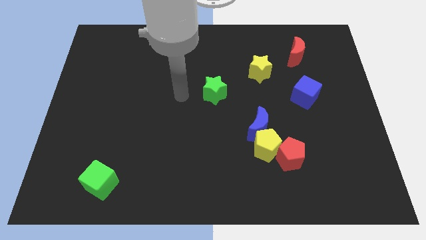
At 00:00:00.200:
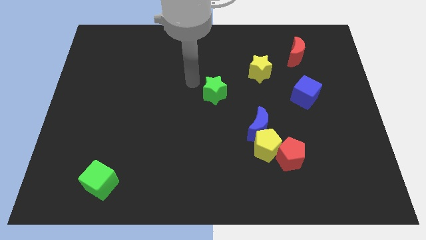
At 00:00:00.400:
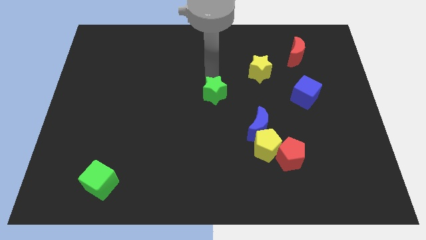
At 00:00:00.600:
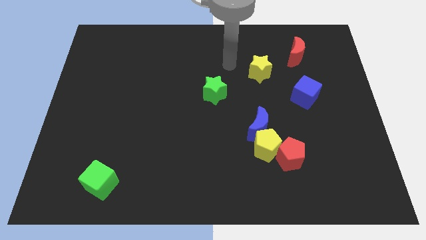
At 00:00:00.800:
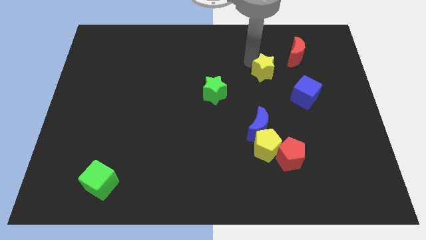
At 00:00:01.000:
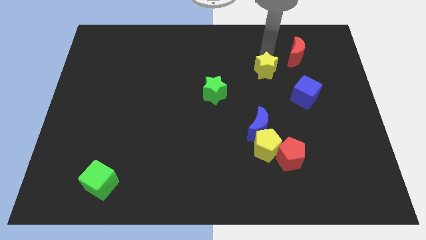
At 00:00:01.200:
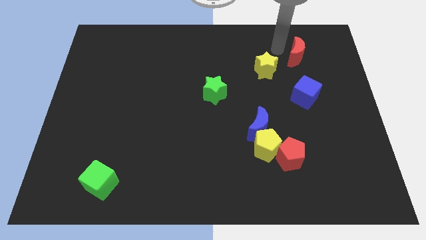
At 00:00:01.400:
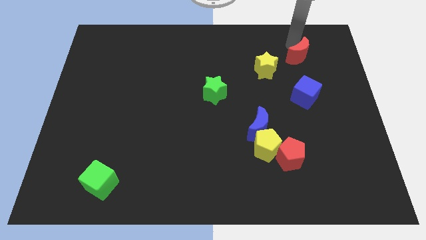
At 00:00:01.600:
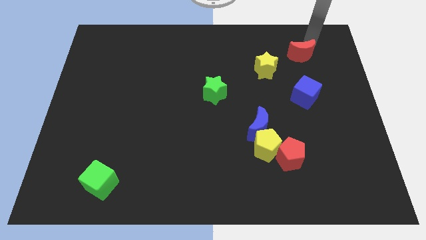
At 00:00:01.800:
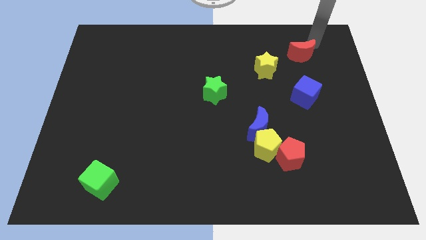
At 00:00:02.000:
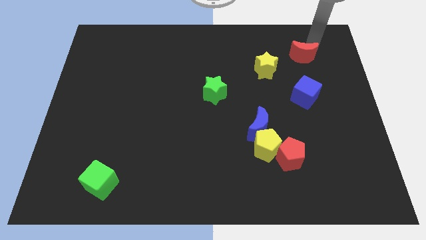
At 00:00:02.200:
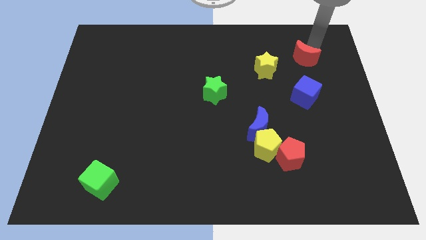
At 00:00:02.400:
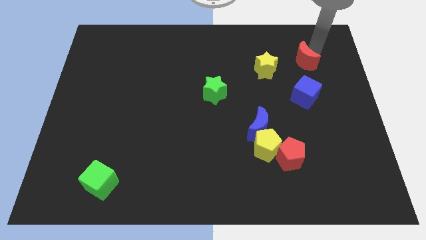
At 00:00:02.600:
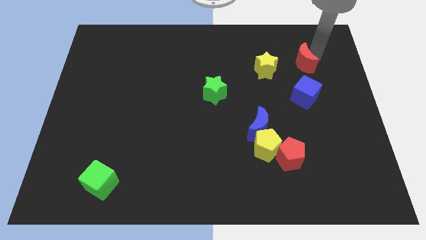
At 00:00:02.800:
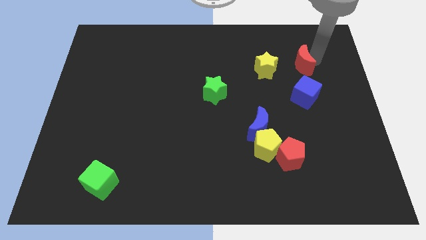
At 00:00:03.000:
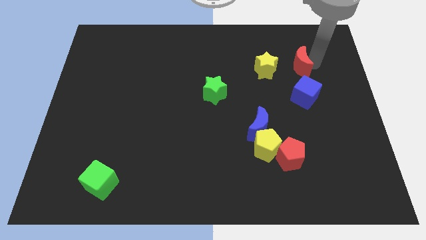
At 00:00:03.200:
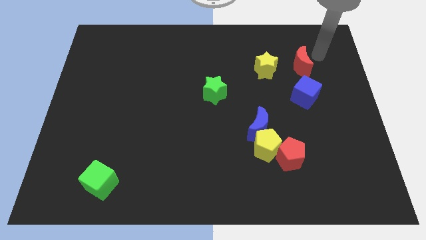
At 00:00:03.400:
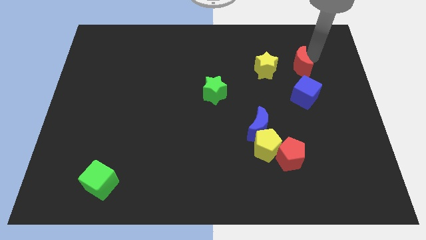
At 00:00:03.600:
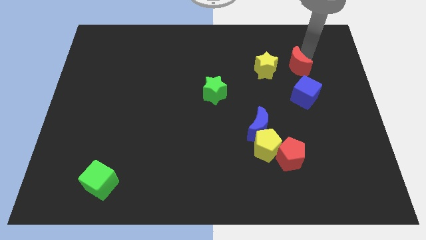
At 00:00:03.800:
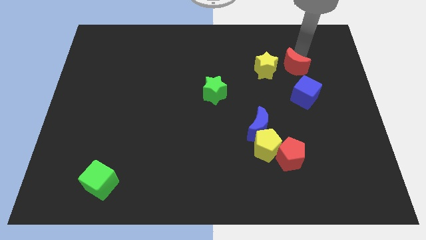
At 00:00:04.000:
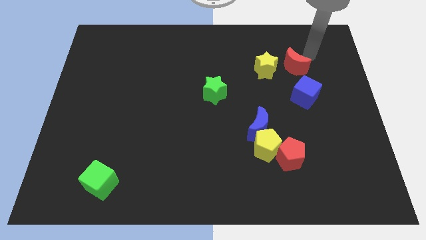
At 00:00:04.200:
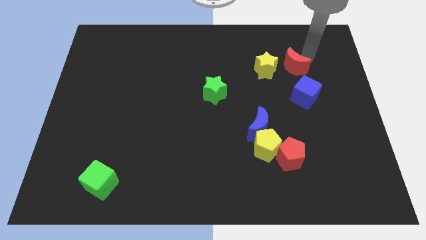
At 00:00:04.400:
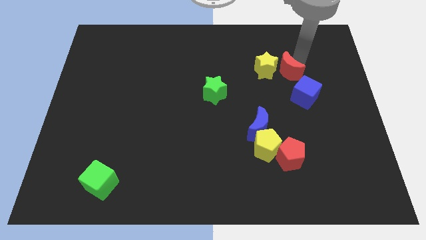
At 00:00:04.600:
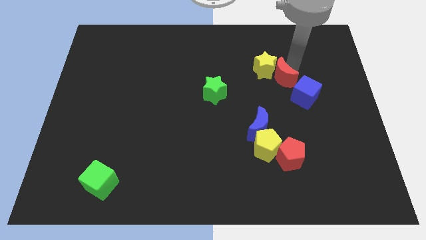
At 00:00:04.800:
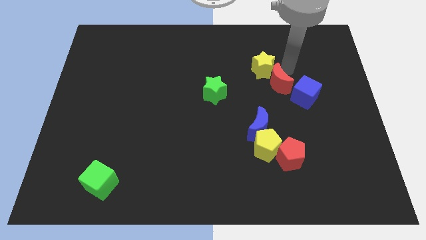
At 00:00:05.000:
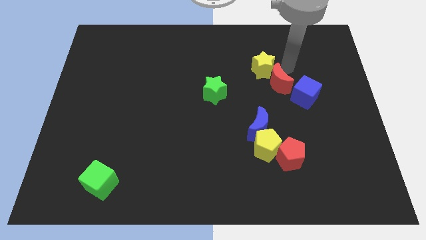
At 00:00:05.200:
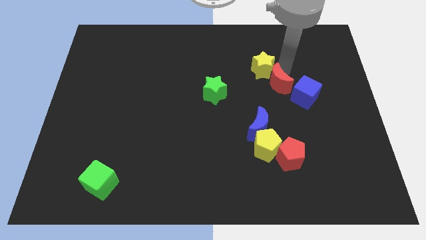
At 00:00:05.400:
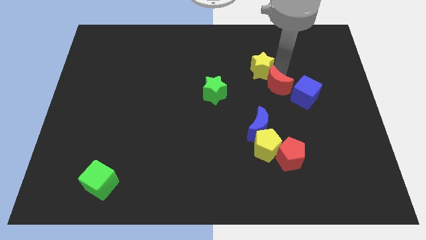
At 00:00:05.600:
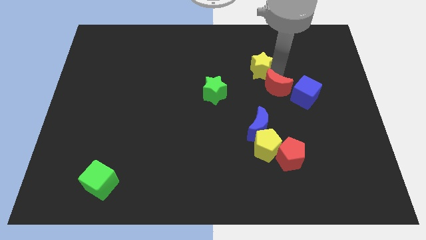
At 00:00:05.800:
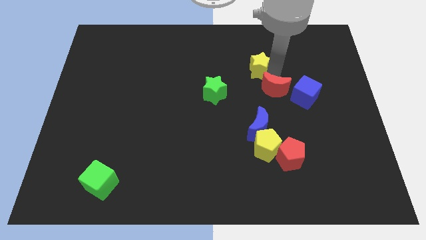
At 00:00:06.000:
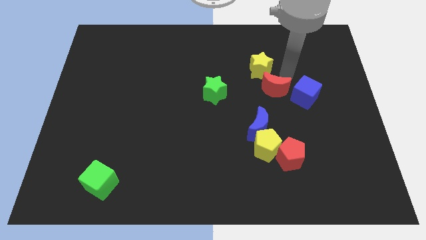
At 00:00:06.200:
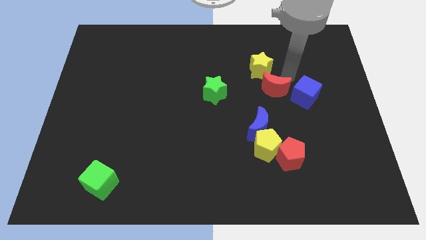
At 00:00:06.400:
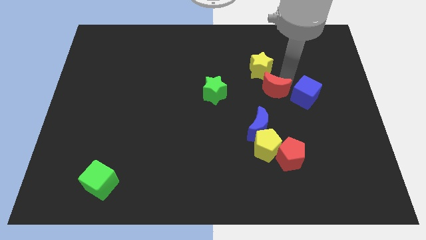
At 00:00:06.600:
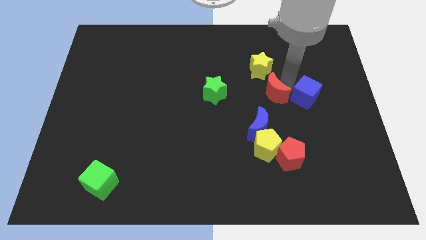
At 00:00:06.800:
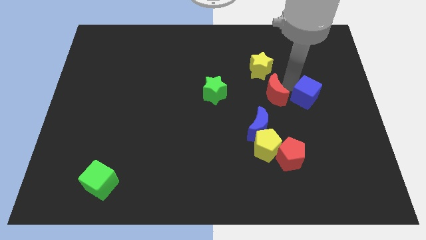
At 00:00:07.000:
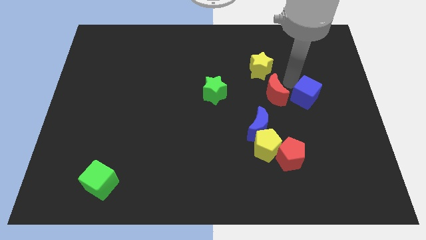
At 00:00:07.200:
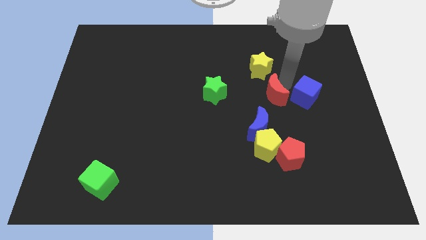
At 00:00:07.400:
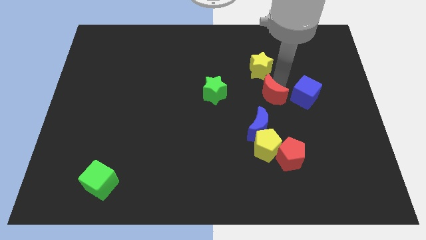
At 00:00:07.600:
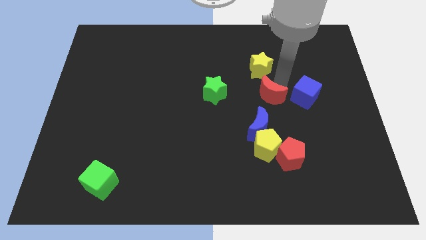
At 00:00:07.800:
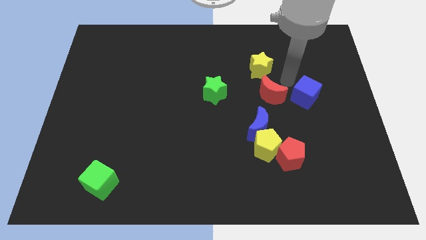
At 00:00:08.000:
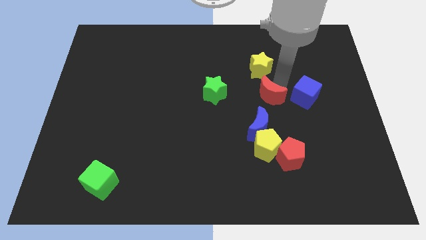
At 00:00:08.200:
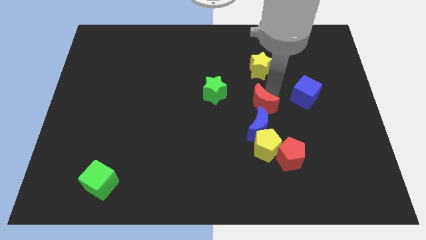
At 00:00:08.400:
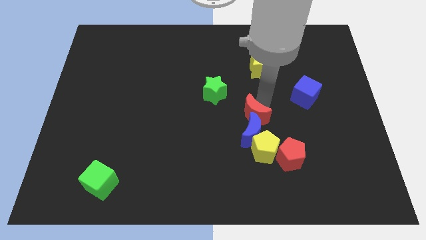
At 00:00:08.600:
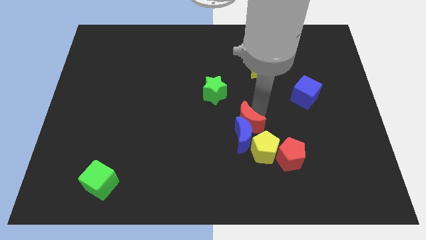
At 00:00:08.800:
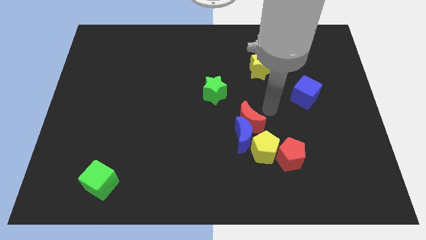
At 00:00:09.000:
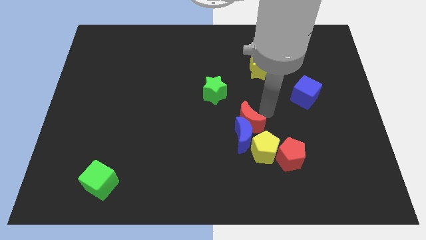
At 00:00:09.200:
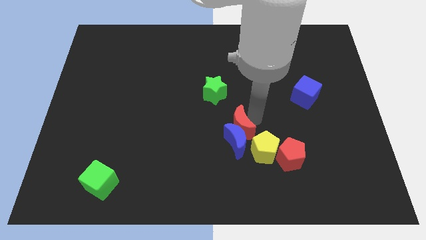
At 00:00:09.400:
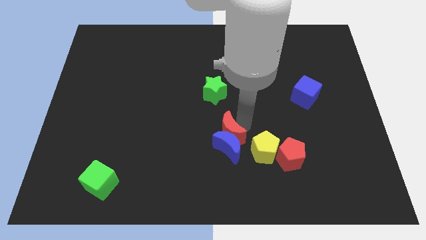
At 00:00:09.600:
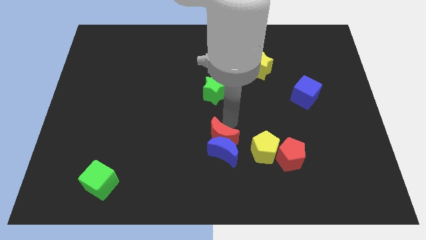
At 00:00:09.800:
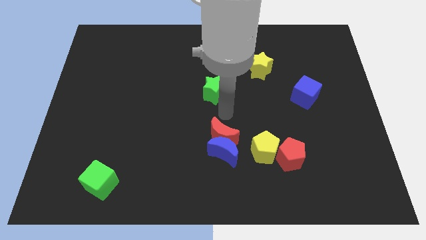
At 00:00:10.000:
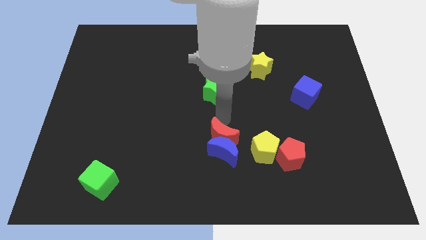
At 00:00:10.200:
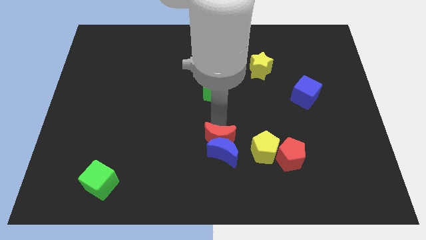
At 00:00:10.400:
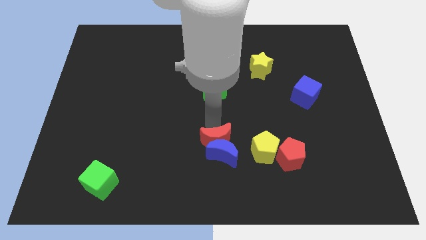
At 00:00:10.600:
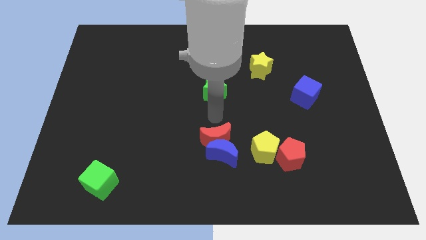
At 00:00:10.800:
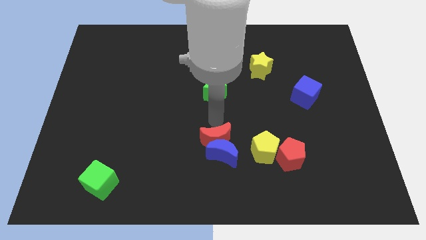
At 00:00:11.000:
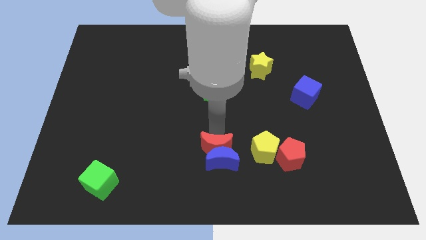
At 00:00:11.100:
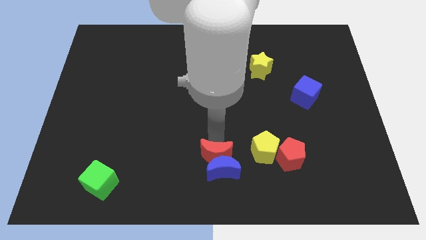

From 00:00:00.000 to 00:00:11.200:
slide the red moon to the bottom side
